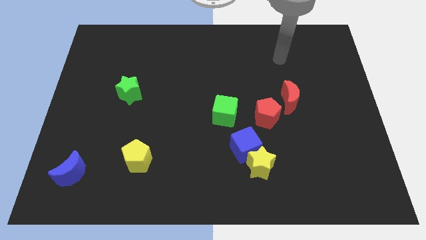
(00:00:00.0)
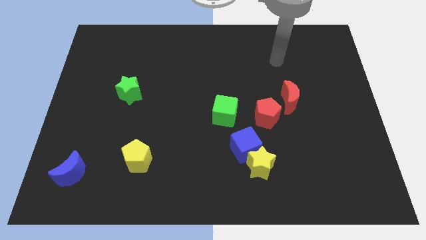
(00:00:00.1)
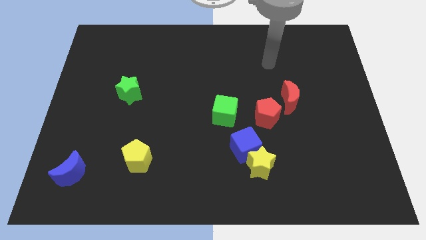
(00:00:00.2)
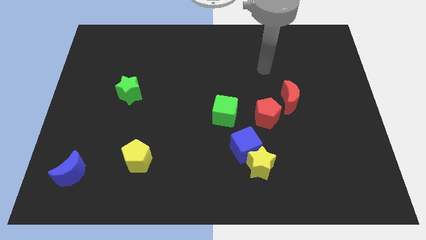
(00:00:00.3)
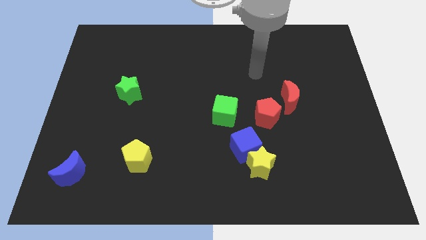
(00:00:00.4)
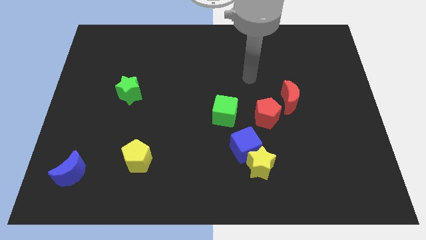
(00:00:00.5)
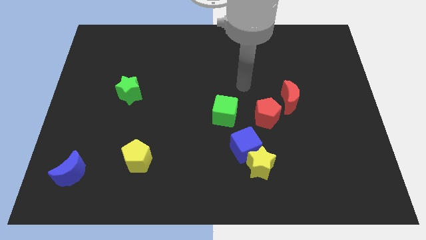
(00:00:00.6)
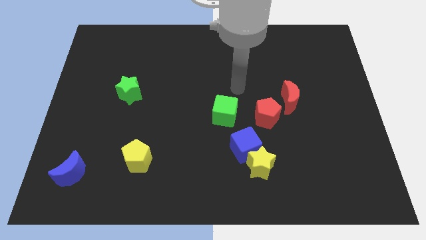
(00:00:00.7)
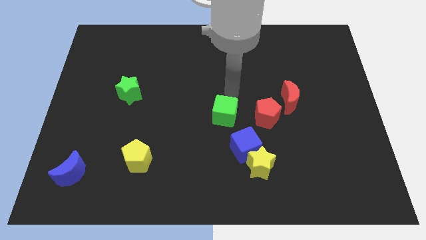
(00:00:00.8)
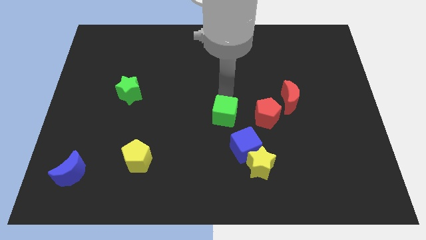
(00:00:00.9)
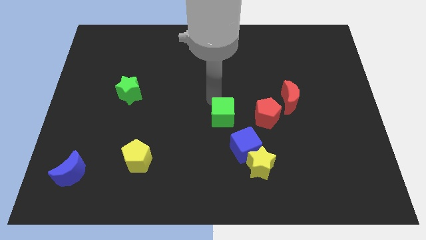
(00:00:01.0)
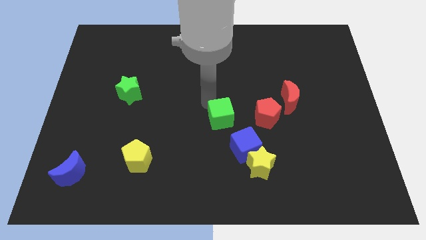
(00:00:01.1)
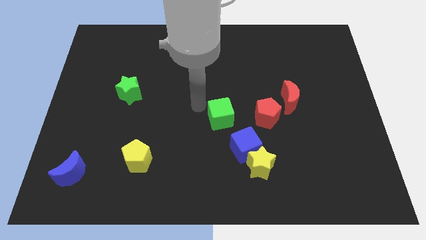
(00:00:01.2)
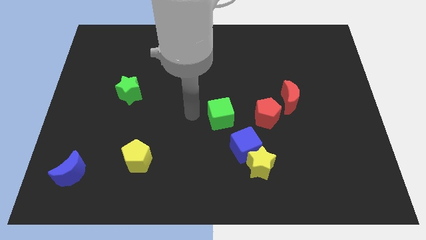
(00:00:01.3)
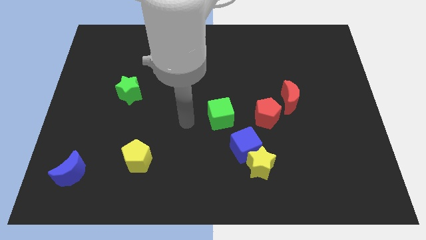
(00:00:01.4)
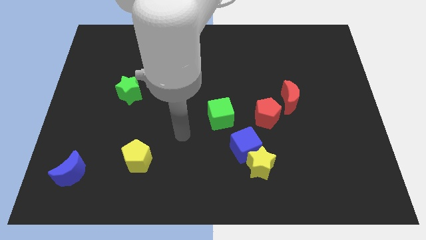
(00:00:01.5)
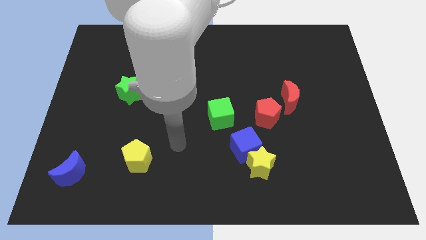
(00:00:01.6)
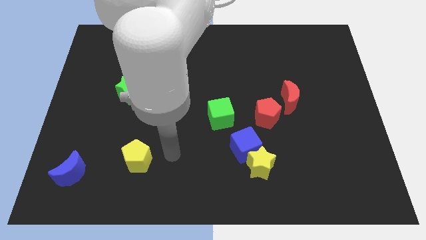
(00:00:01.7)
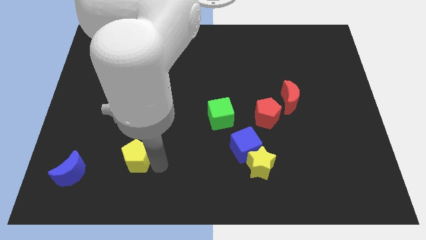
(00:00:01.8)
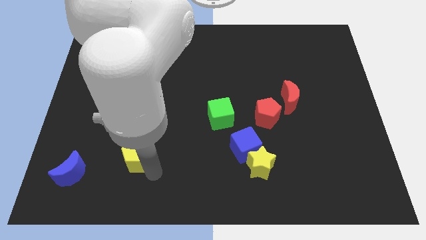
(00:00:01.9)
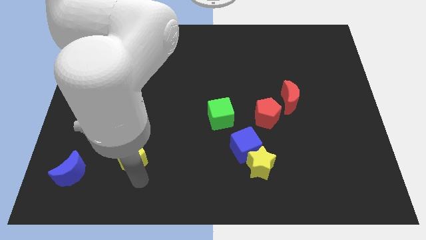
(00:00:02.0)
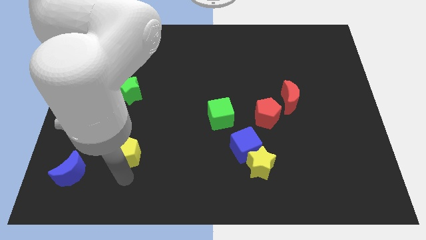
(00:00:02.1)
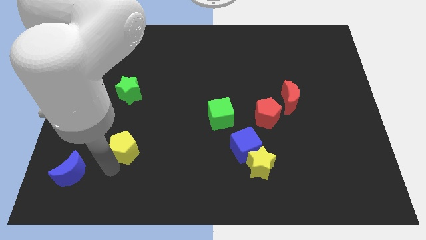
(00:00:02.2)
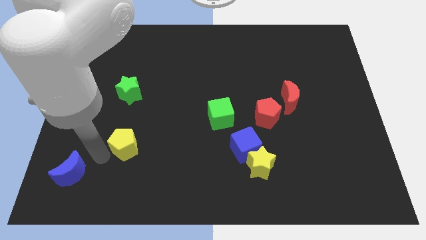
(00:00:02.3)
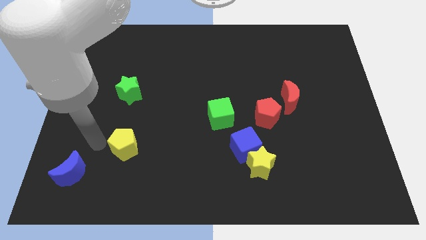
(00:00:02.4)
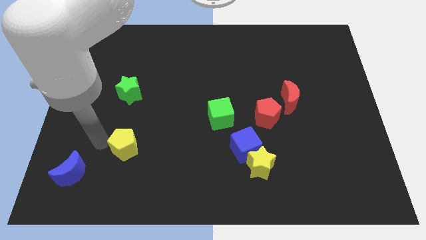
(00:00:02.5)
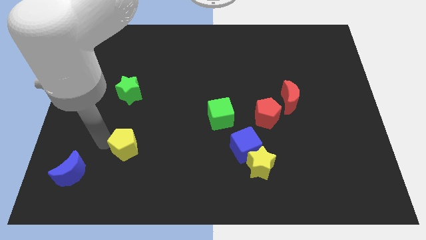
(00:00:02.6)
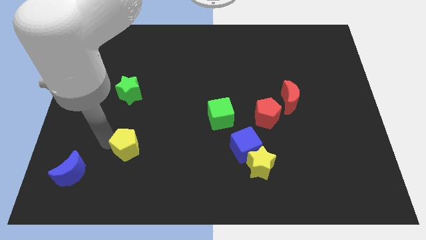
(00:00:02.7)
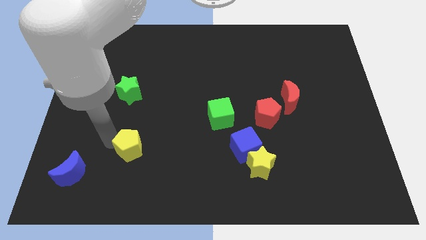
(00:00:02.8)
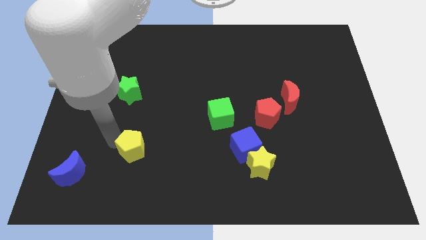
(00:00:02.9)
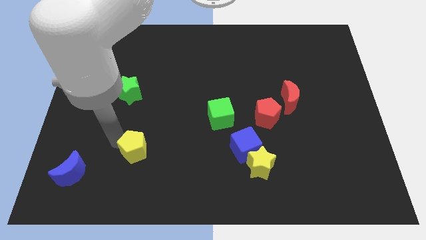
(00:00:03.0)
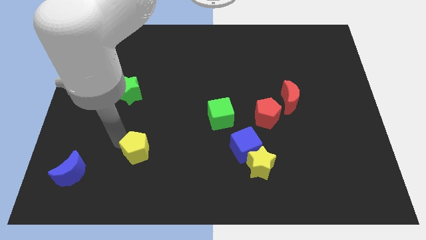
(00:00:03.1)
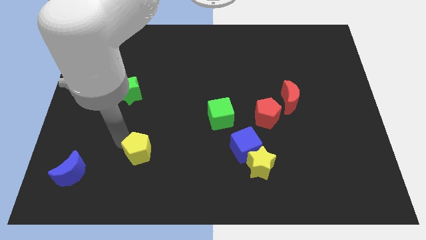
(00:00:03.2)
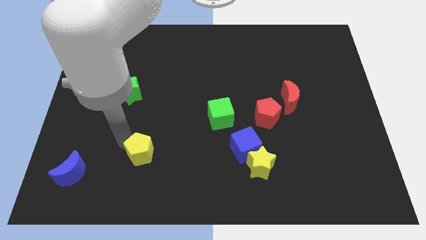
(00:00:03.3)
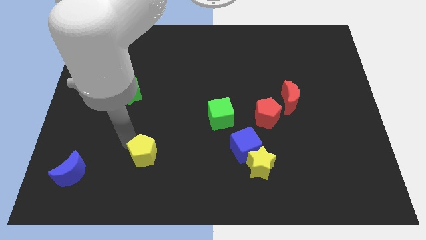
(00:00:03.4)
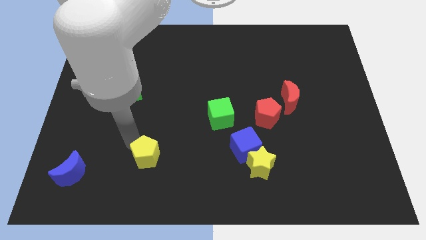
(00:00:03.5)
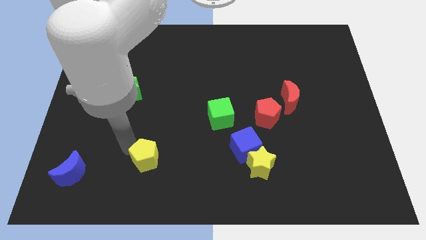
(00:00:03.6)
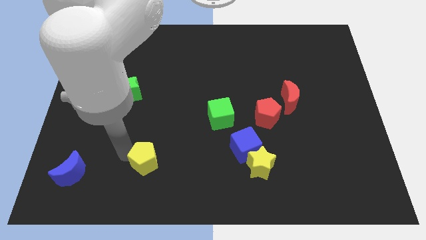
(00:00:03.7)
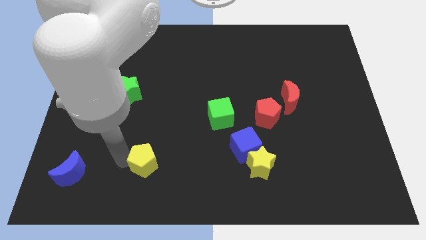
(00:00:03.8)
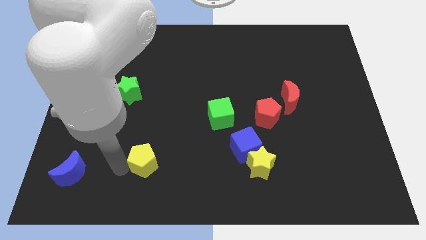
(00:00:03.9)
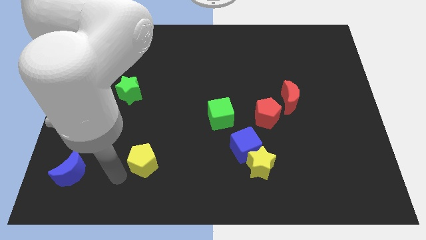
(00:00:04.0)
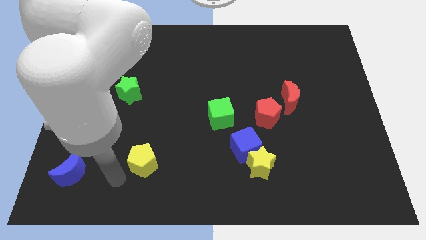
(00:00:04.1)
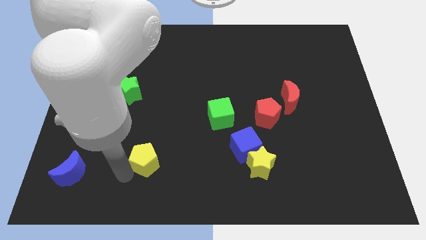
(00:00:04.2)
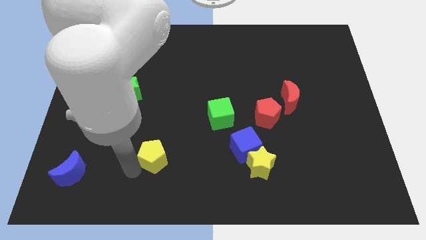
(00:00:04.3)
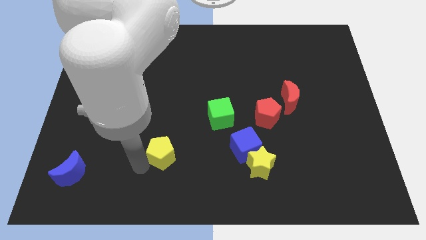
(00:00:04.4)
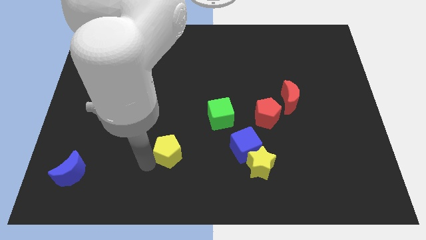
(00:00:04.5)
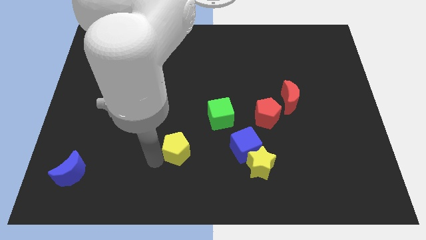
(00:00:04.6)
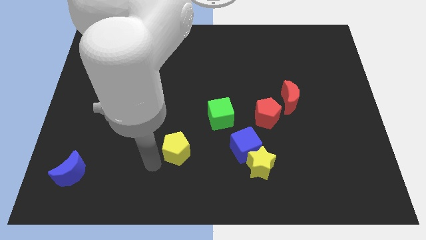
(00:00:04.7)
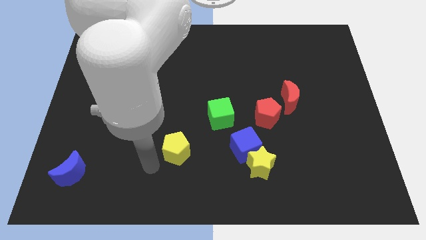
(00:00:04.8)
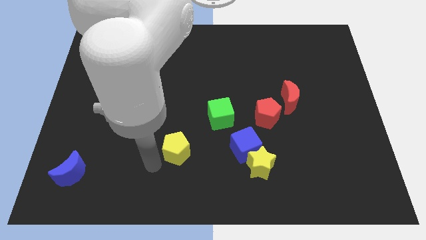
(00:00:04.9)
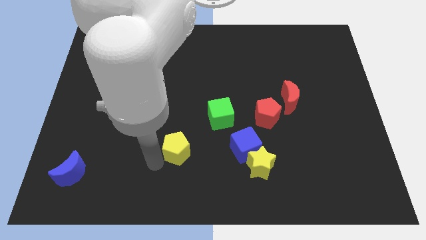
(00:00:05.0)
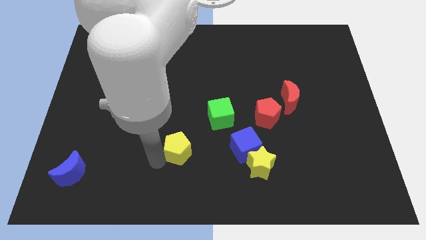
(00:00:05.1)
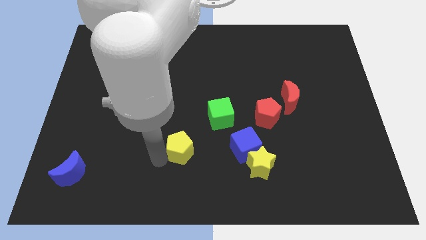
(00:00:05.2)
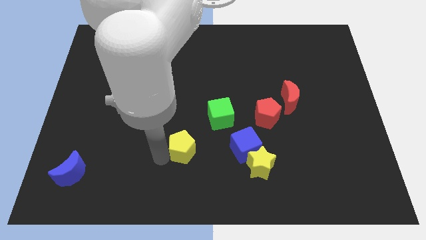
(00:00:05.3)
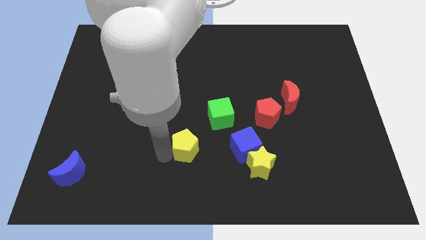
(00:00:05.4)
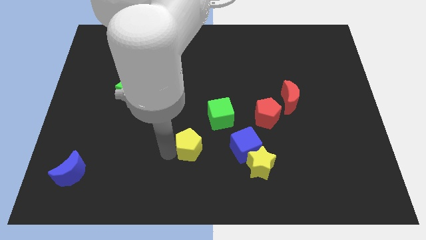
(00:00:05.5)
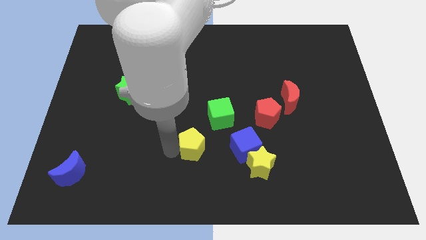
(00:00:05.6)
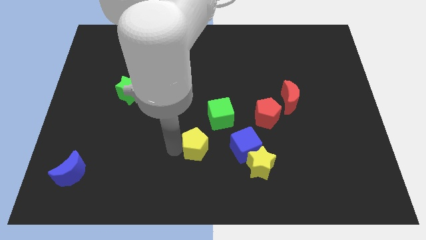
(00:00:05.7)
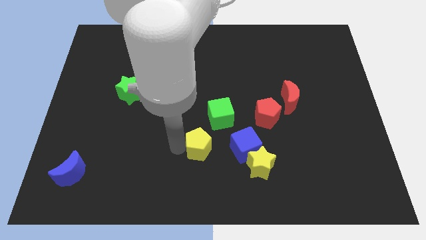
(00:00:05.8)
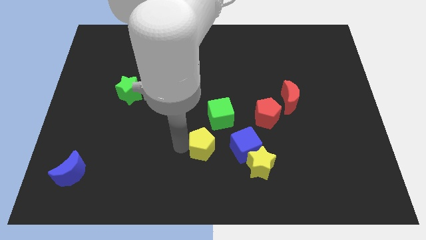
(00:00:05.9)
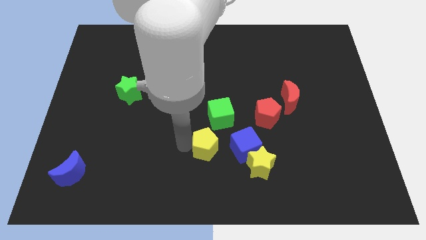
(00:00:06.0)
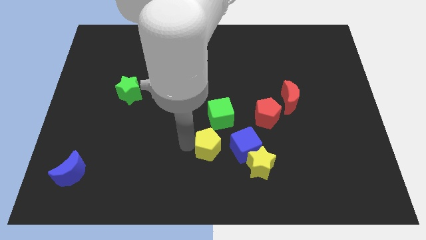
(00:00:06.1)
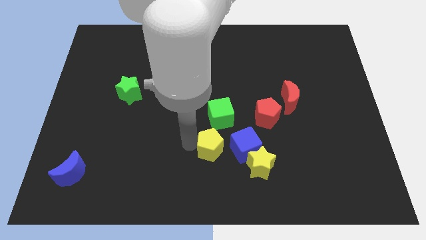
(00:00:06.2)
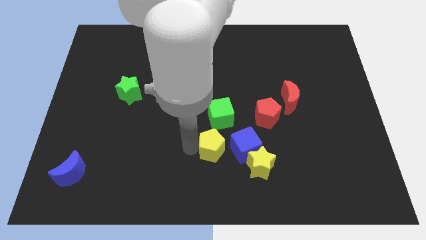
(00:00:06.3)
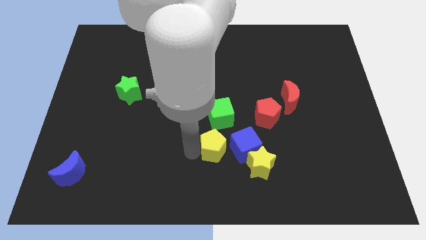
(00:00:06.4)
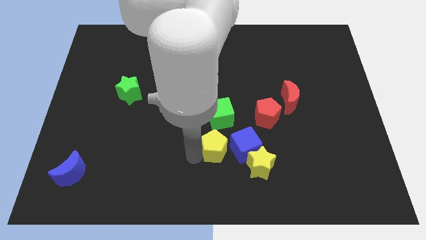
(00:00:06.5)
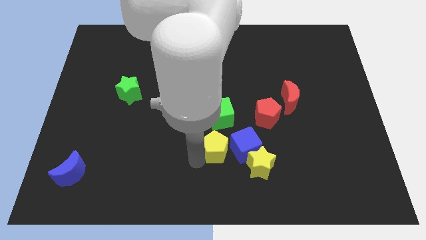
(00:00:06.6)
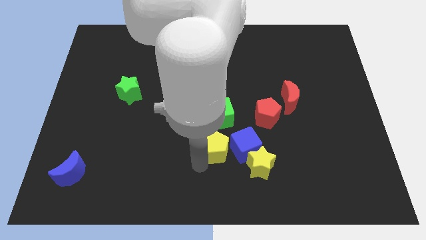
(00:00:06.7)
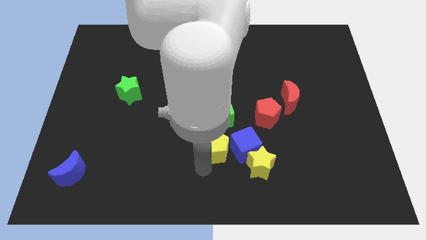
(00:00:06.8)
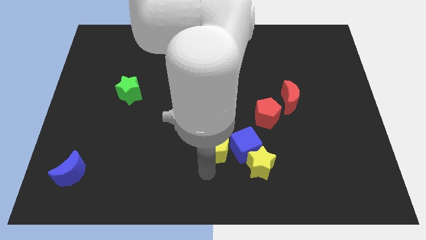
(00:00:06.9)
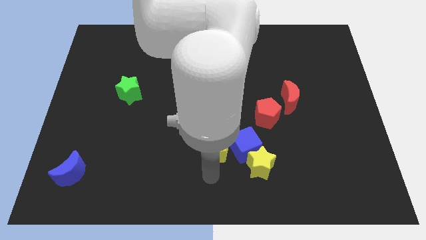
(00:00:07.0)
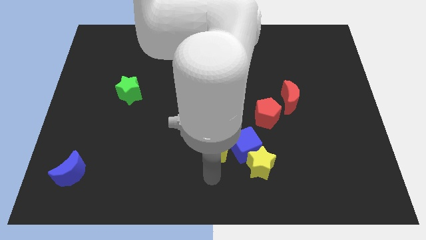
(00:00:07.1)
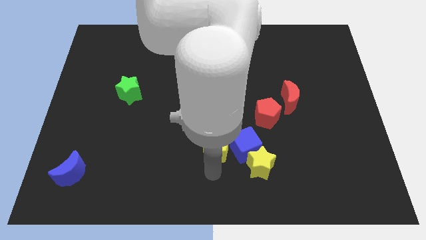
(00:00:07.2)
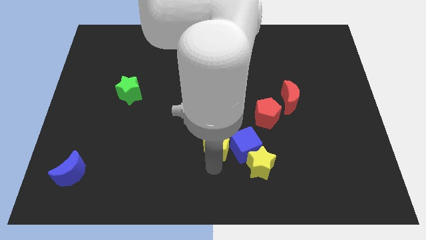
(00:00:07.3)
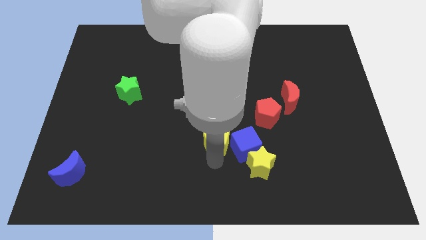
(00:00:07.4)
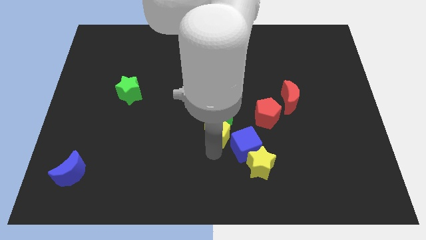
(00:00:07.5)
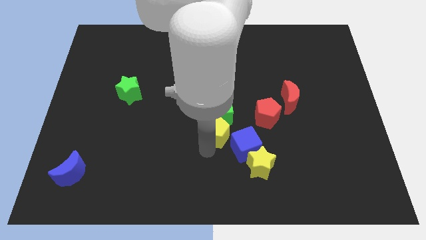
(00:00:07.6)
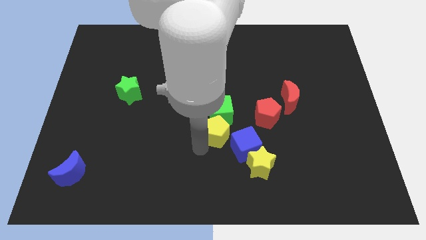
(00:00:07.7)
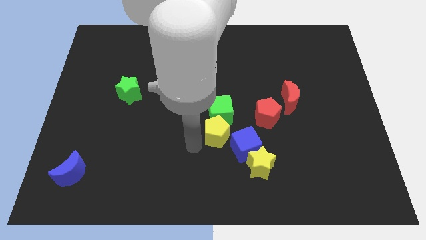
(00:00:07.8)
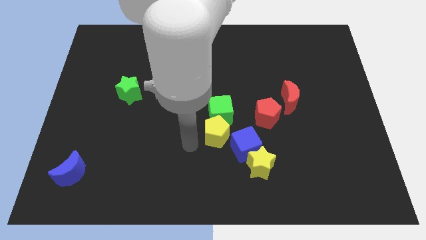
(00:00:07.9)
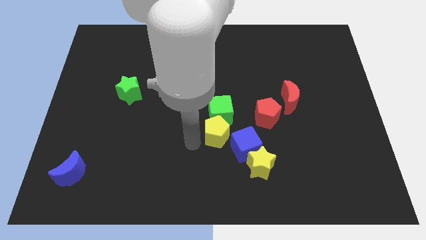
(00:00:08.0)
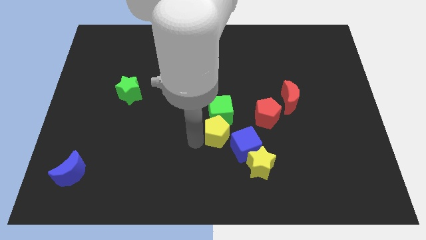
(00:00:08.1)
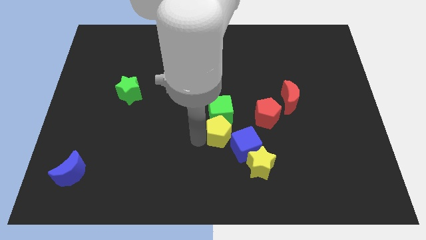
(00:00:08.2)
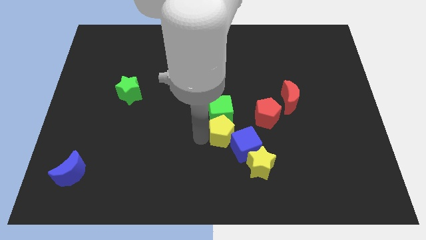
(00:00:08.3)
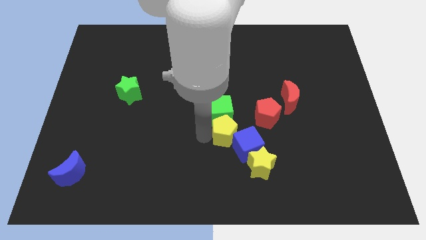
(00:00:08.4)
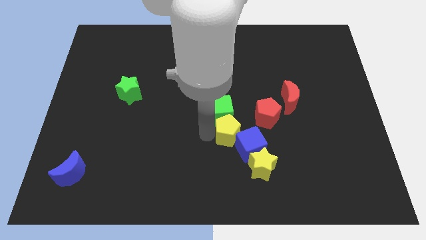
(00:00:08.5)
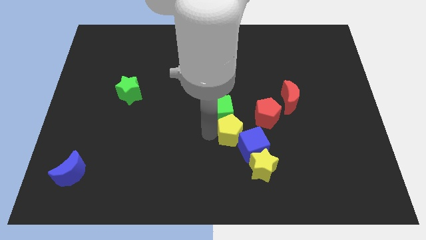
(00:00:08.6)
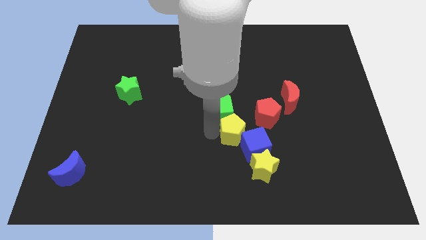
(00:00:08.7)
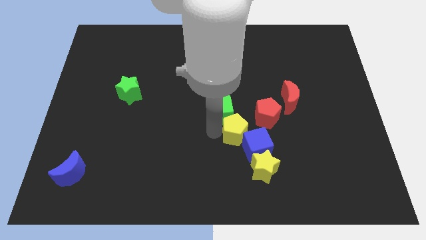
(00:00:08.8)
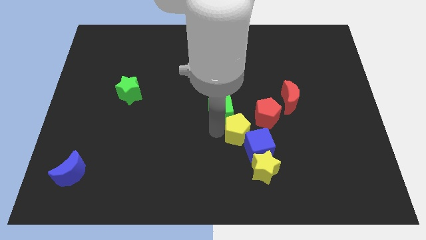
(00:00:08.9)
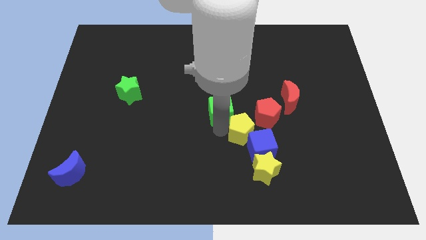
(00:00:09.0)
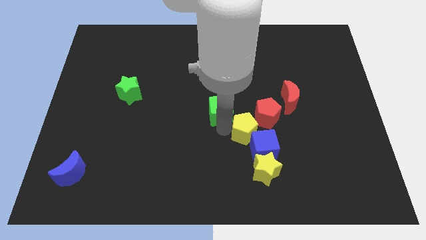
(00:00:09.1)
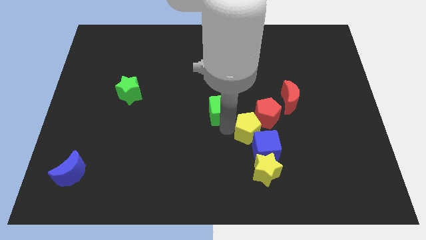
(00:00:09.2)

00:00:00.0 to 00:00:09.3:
push the yellow pentagon to the red pentagon
